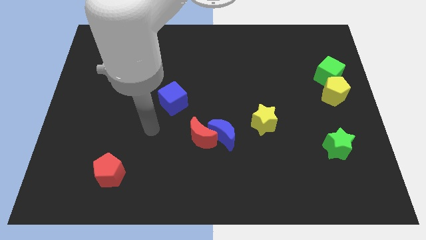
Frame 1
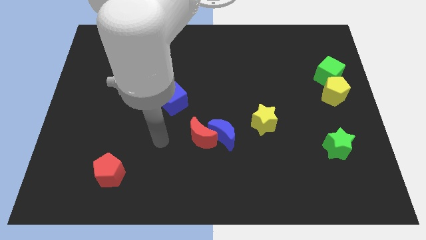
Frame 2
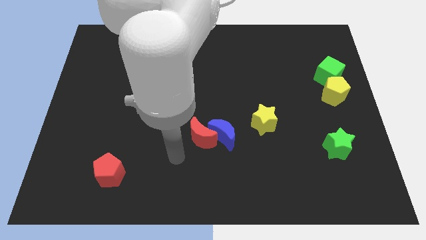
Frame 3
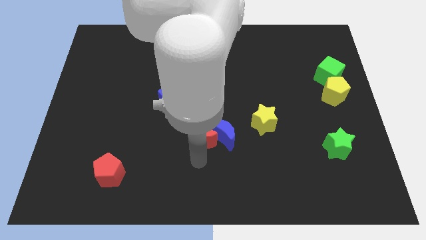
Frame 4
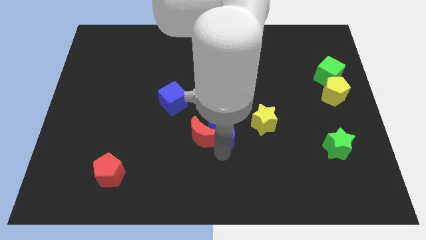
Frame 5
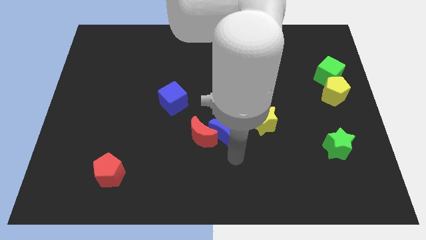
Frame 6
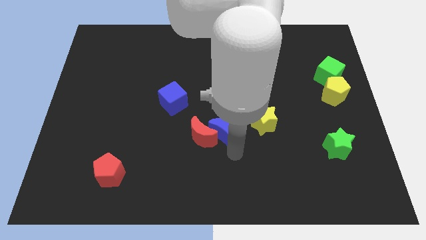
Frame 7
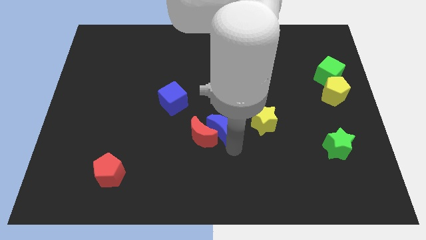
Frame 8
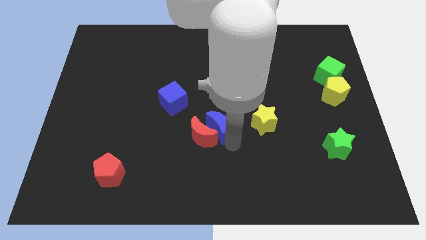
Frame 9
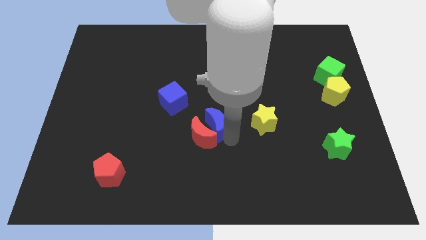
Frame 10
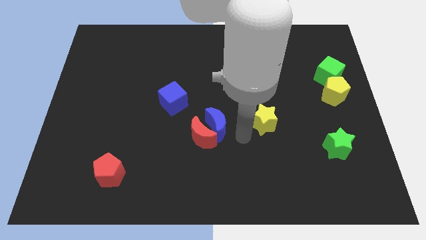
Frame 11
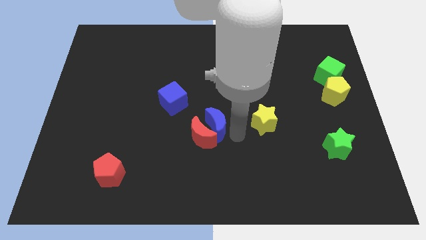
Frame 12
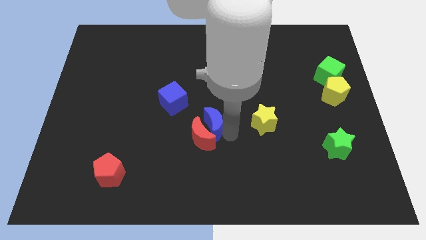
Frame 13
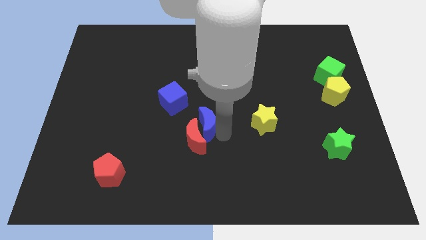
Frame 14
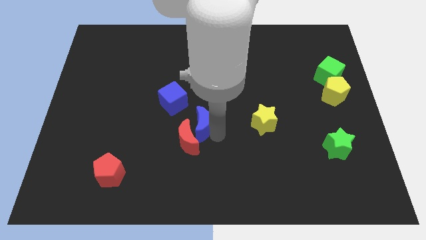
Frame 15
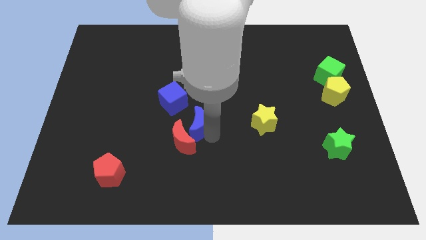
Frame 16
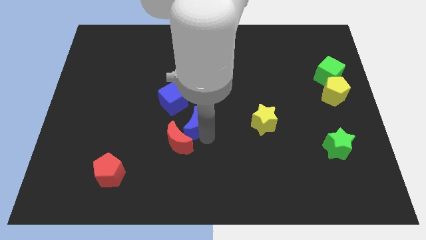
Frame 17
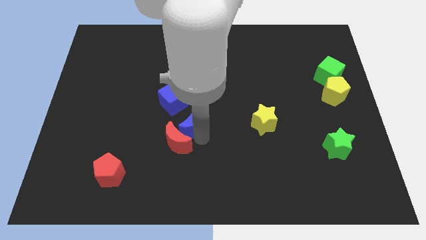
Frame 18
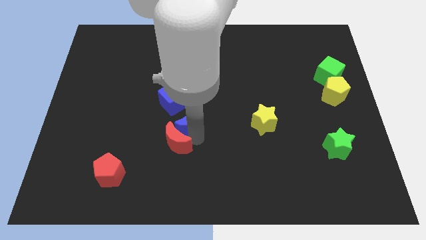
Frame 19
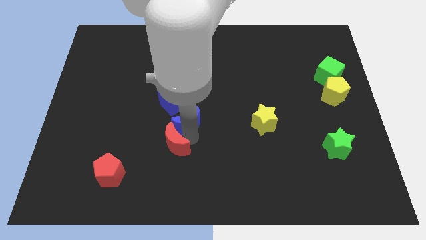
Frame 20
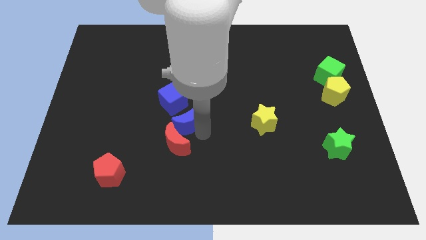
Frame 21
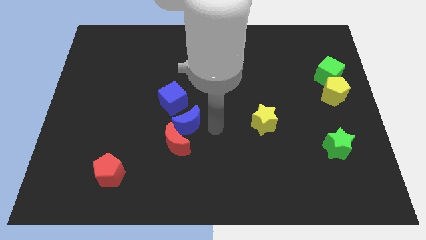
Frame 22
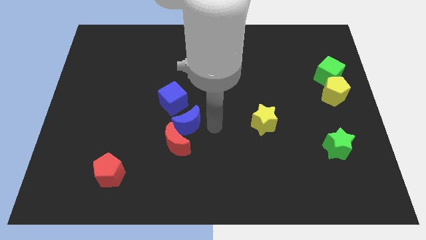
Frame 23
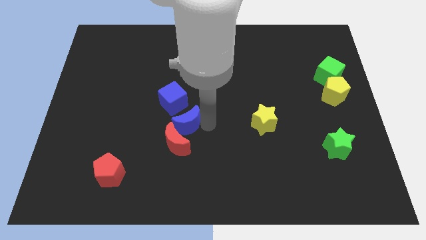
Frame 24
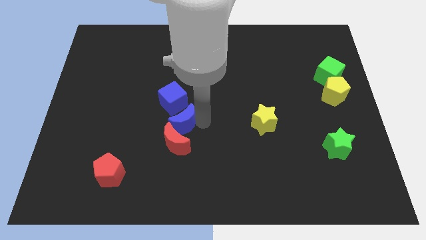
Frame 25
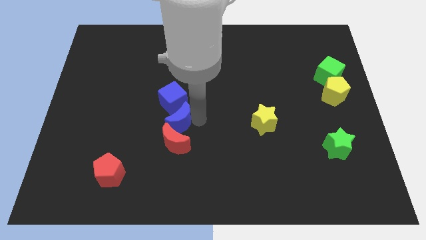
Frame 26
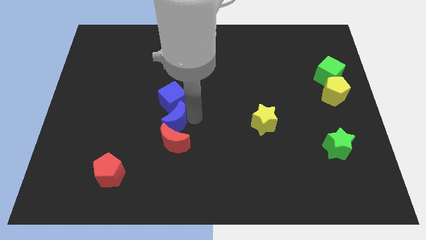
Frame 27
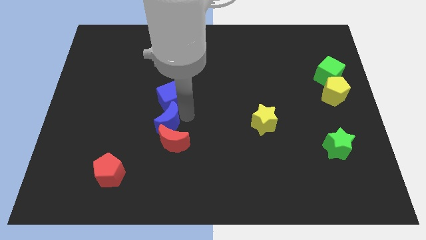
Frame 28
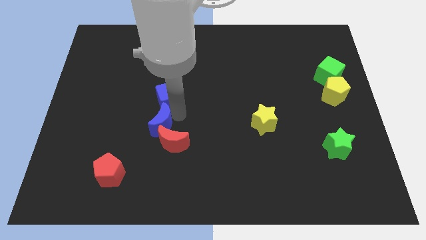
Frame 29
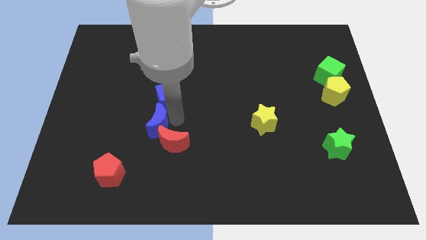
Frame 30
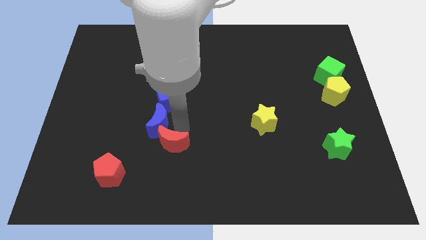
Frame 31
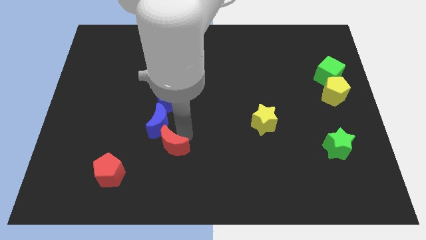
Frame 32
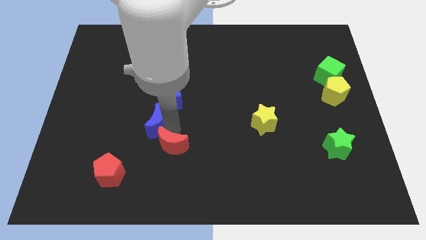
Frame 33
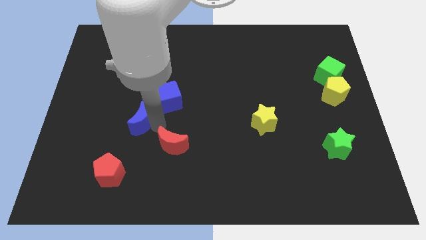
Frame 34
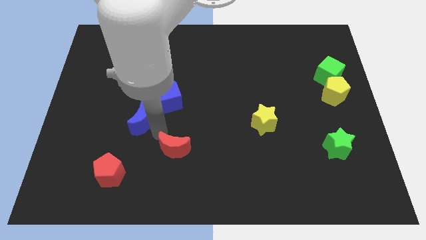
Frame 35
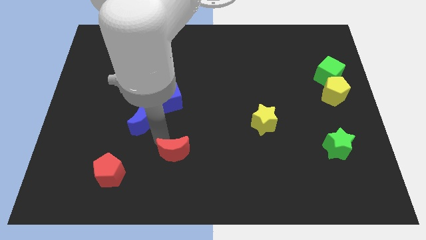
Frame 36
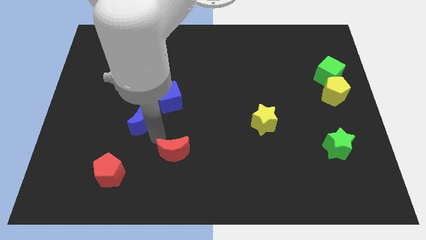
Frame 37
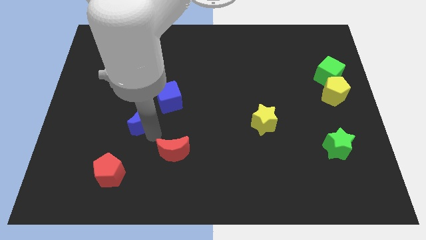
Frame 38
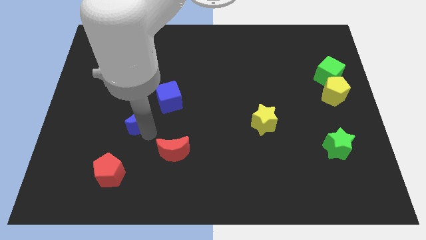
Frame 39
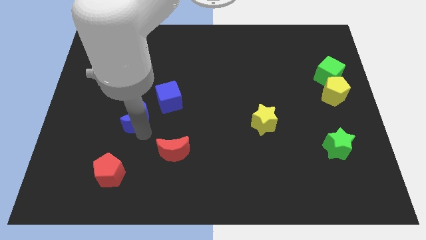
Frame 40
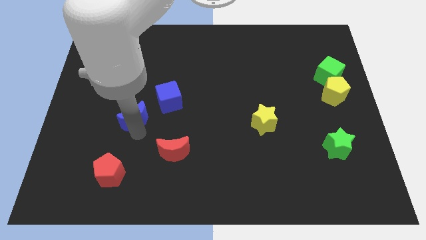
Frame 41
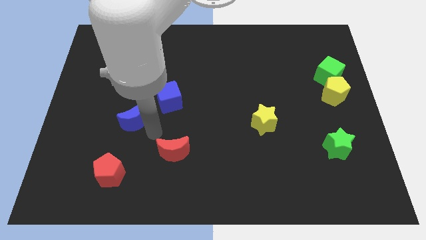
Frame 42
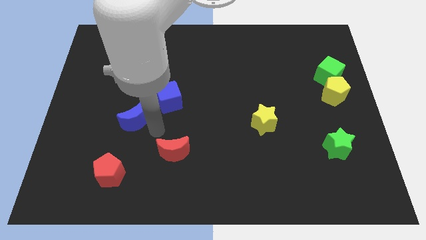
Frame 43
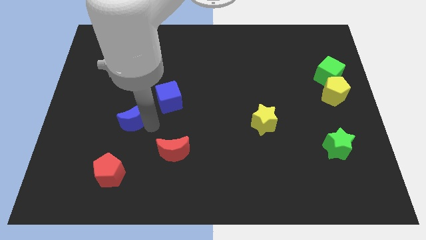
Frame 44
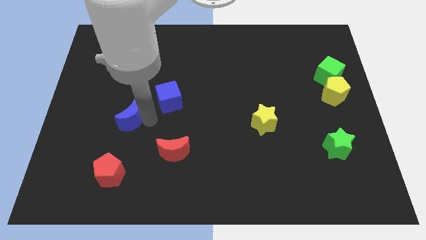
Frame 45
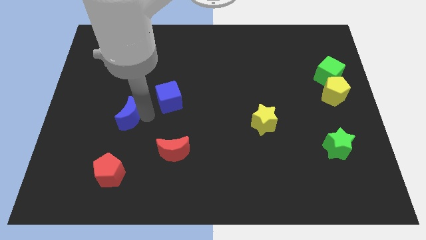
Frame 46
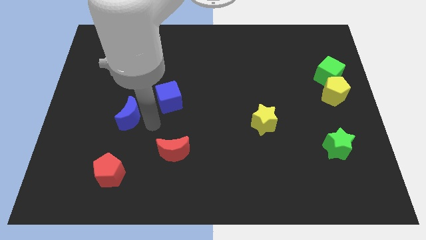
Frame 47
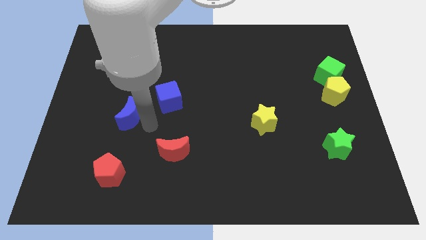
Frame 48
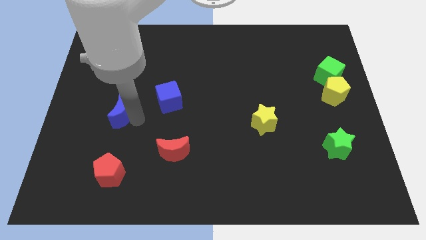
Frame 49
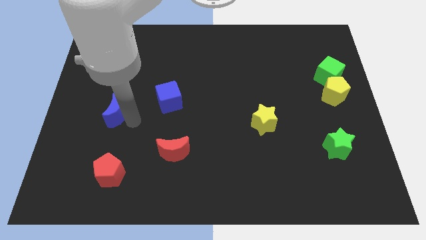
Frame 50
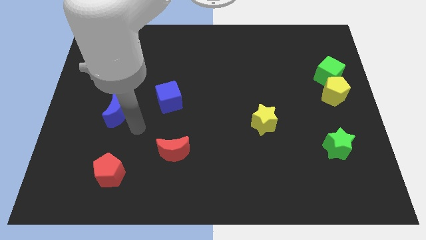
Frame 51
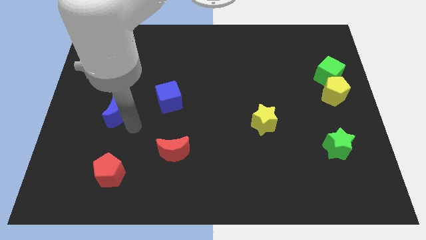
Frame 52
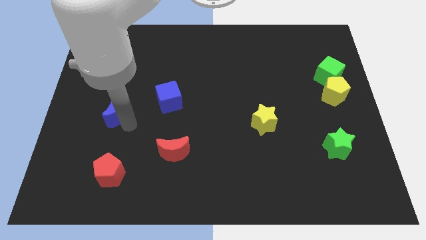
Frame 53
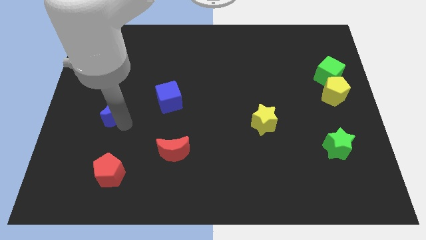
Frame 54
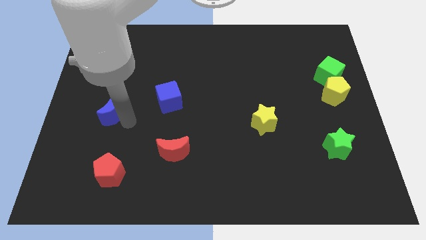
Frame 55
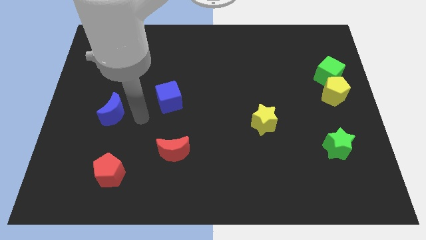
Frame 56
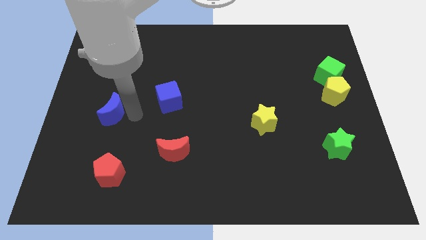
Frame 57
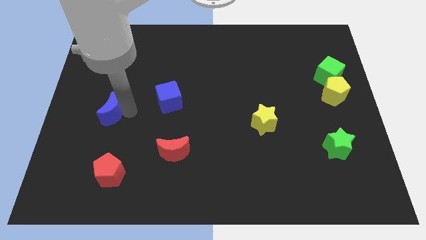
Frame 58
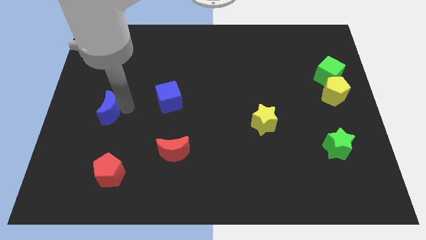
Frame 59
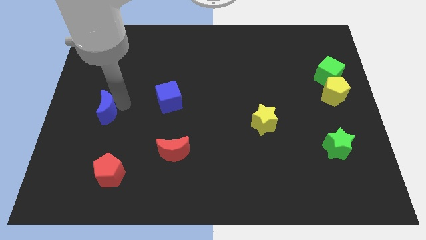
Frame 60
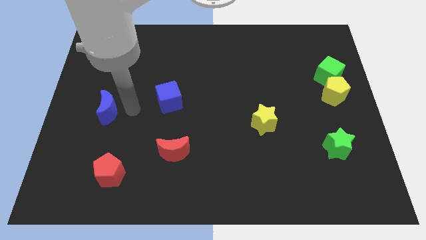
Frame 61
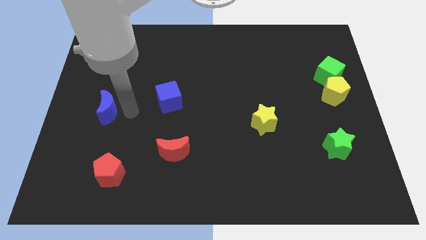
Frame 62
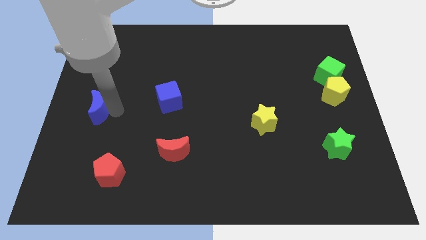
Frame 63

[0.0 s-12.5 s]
move the blue moon to the left side
